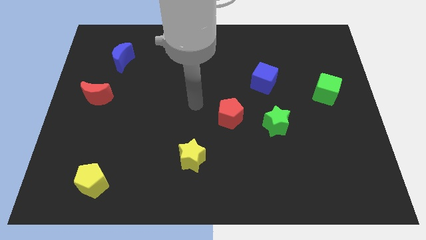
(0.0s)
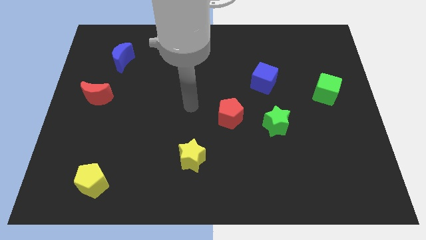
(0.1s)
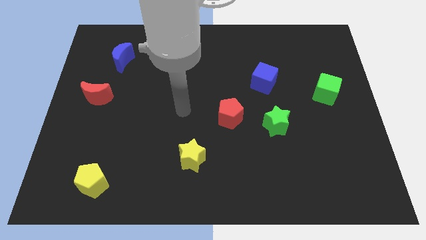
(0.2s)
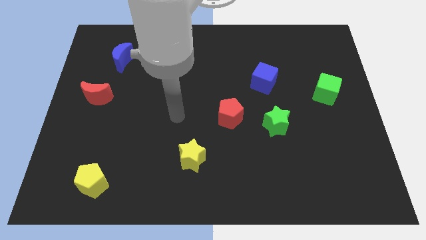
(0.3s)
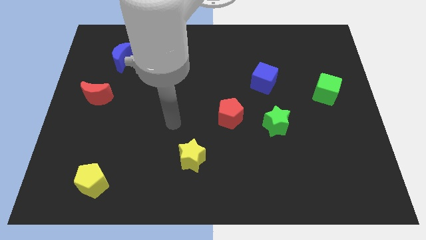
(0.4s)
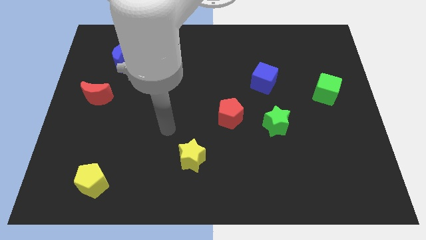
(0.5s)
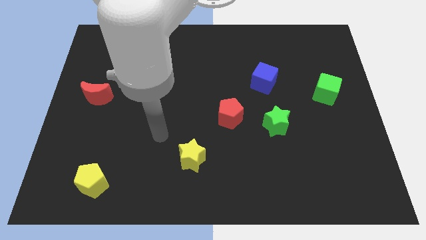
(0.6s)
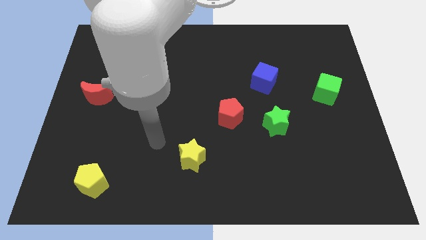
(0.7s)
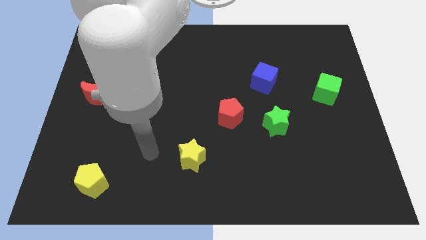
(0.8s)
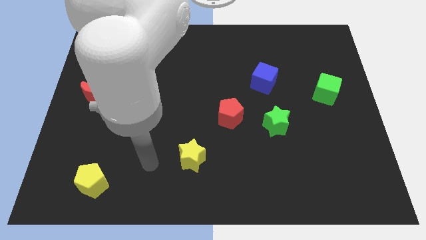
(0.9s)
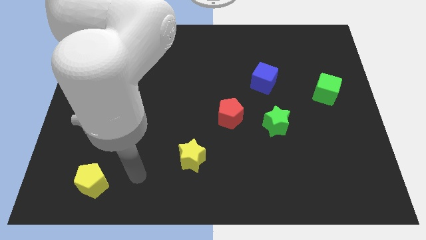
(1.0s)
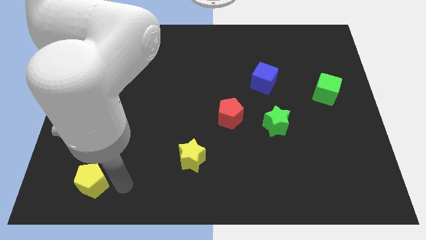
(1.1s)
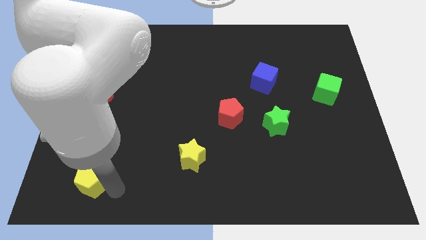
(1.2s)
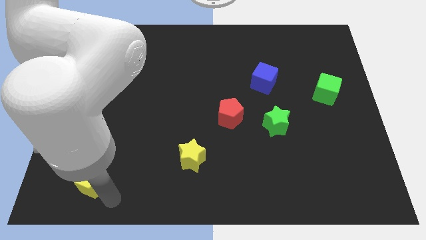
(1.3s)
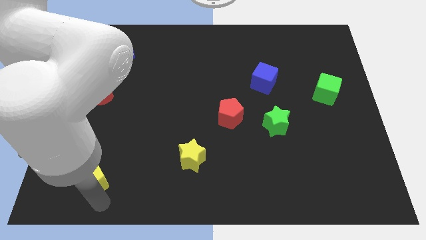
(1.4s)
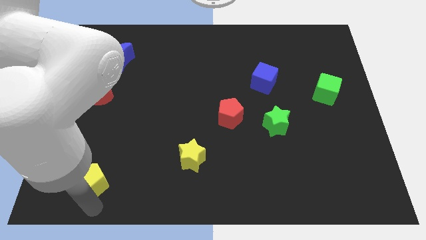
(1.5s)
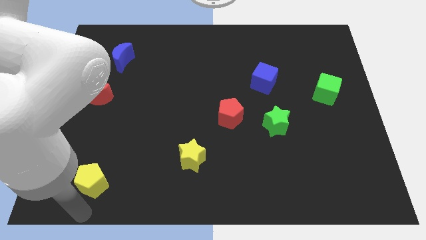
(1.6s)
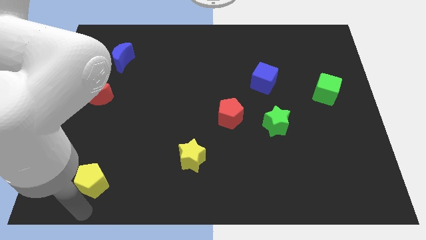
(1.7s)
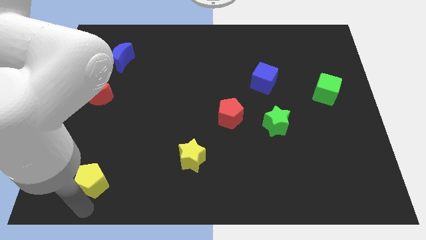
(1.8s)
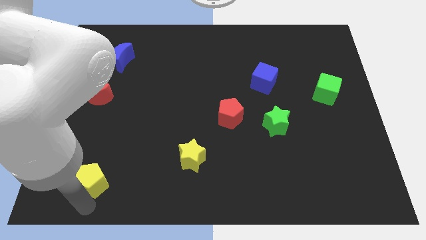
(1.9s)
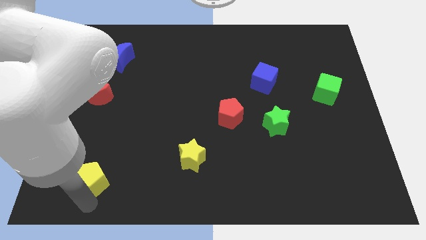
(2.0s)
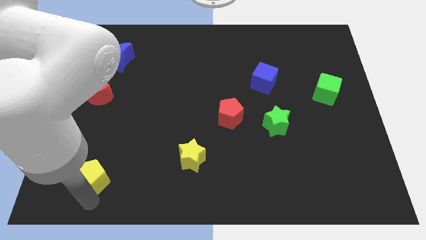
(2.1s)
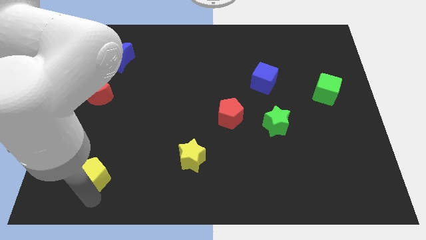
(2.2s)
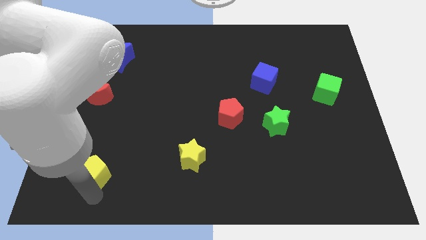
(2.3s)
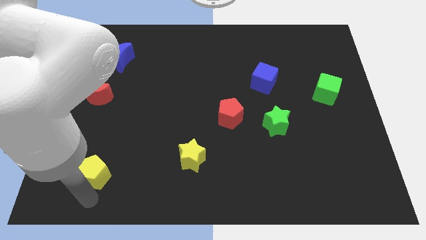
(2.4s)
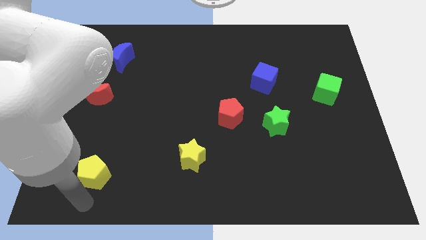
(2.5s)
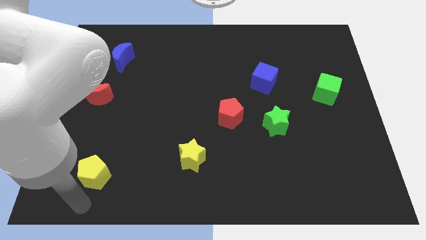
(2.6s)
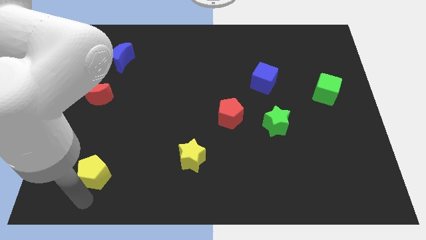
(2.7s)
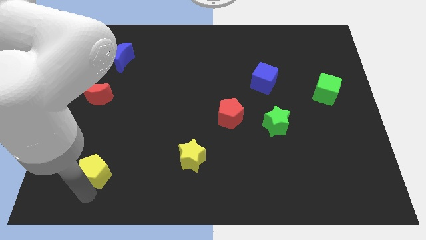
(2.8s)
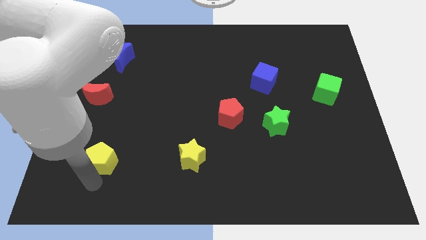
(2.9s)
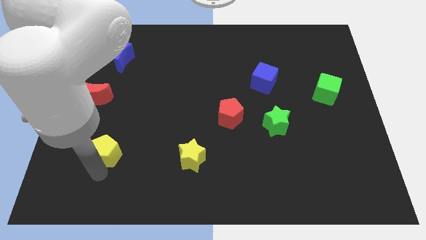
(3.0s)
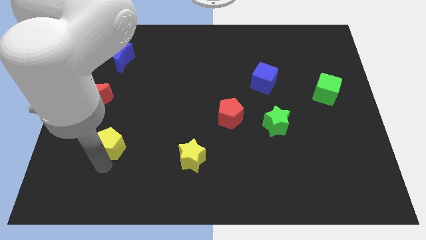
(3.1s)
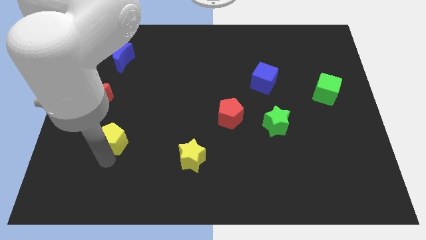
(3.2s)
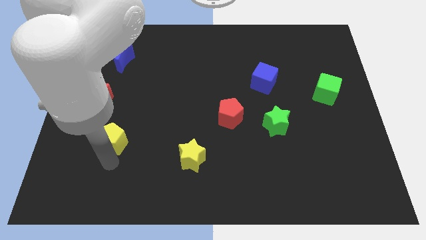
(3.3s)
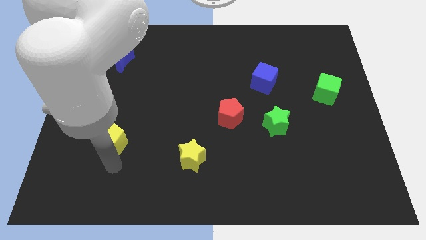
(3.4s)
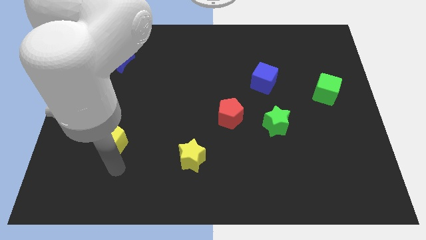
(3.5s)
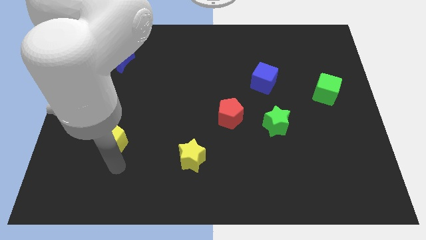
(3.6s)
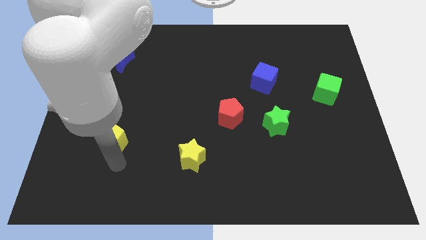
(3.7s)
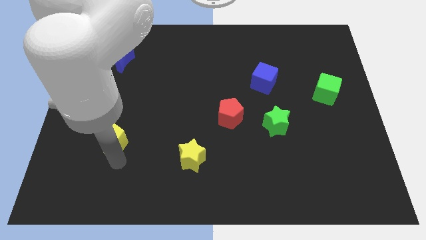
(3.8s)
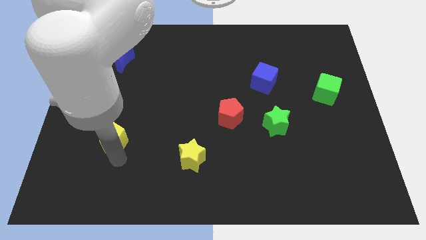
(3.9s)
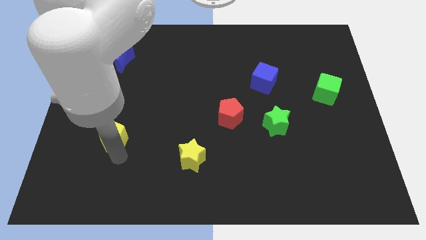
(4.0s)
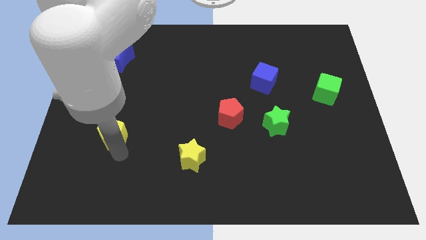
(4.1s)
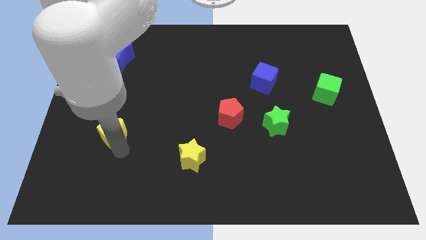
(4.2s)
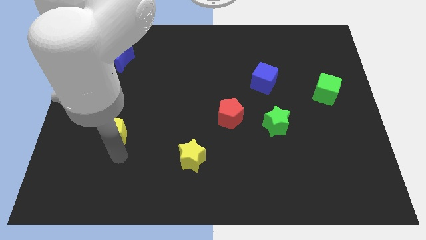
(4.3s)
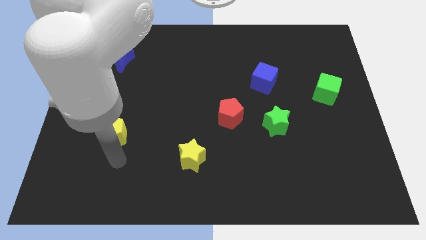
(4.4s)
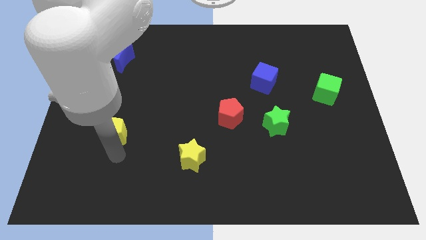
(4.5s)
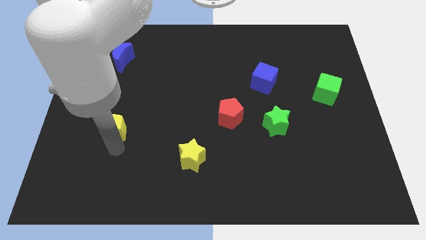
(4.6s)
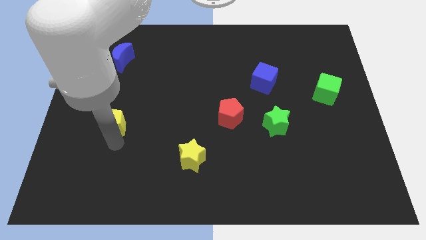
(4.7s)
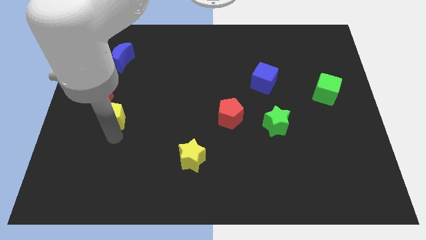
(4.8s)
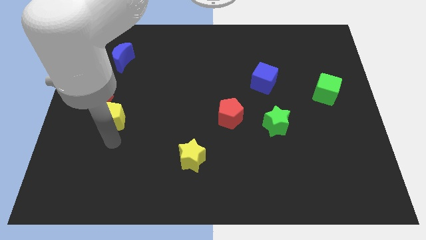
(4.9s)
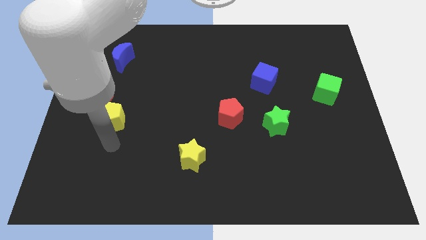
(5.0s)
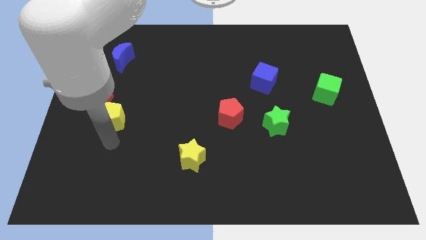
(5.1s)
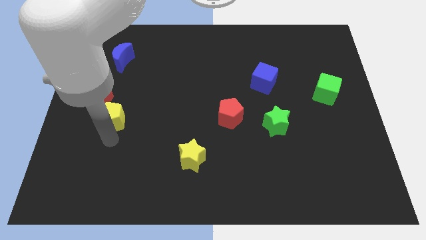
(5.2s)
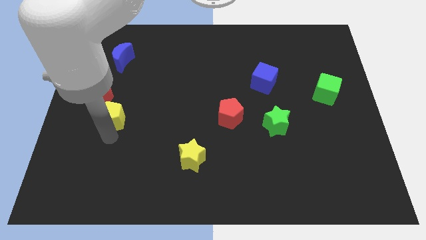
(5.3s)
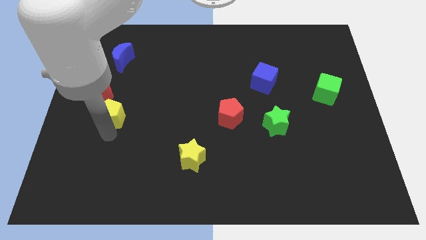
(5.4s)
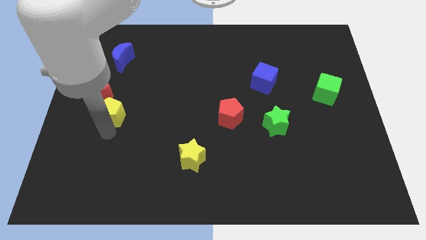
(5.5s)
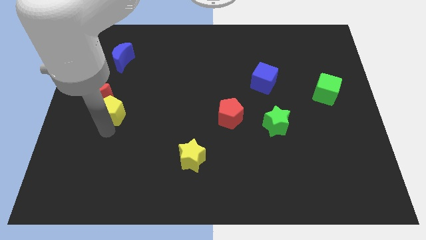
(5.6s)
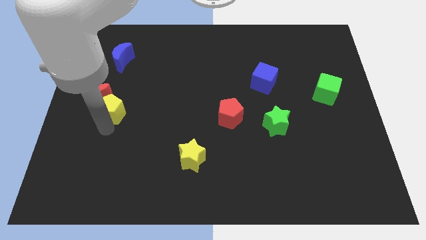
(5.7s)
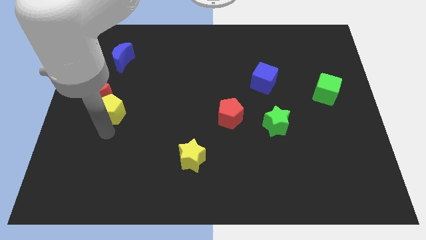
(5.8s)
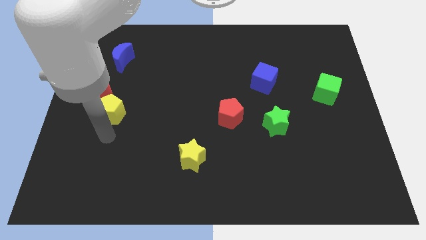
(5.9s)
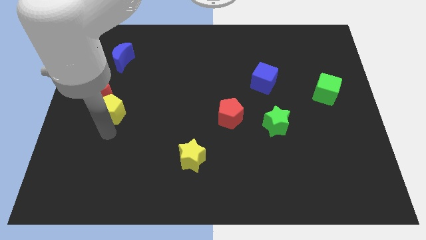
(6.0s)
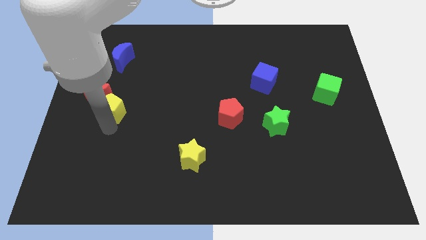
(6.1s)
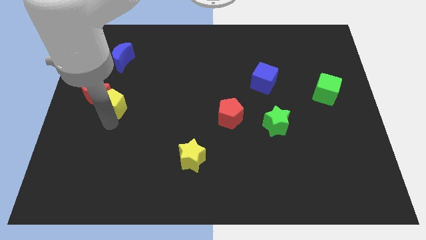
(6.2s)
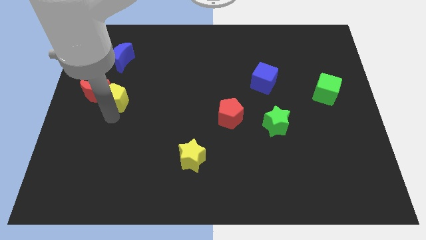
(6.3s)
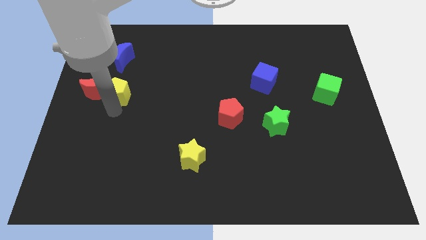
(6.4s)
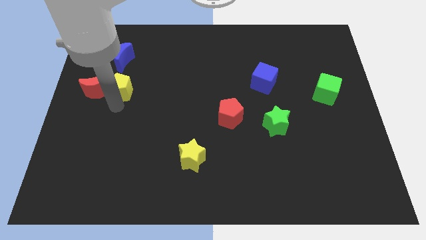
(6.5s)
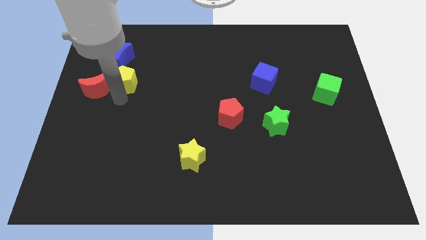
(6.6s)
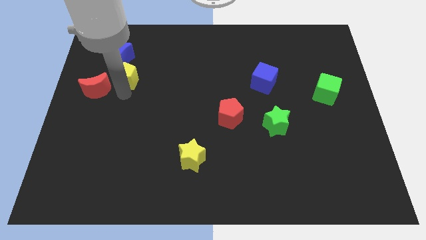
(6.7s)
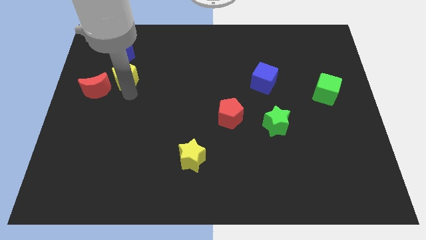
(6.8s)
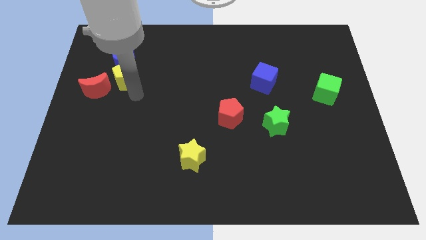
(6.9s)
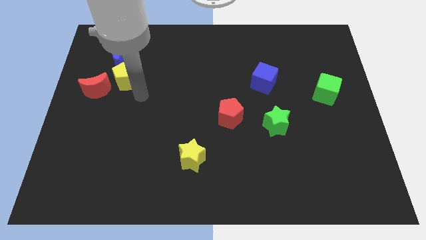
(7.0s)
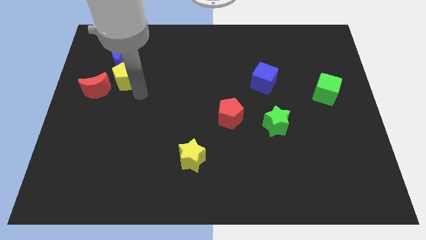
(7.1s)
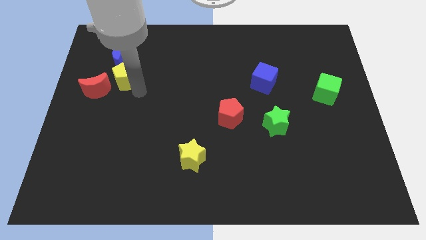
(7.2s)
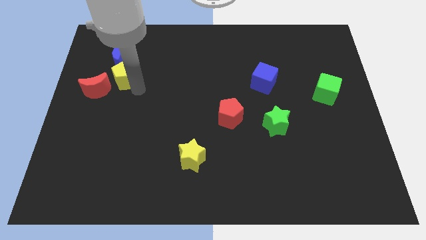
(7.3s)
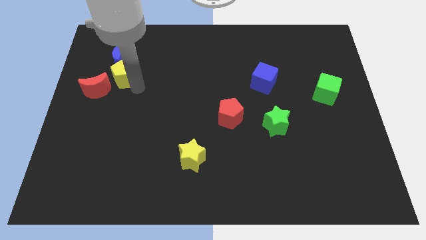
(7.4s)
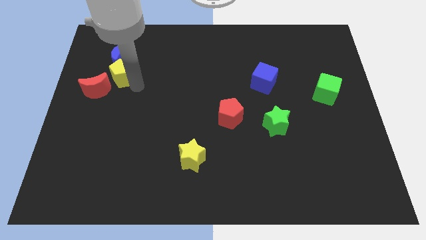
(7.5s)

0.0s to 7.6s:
put the yellow pentagon towards the blue moon
